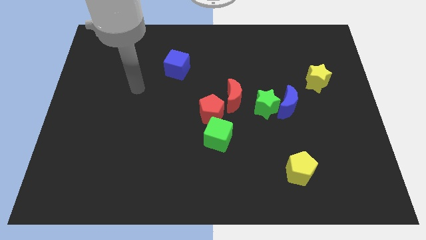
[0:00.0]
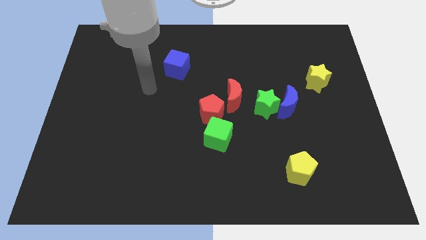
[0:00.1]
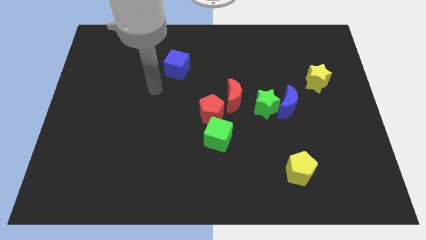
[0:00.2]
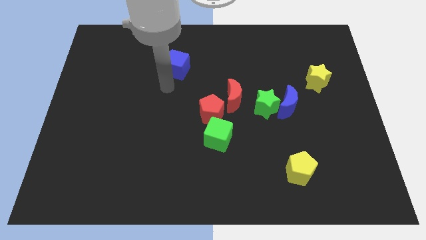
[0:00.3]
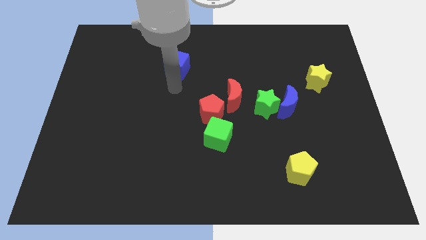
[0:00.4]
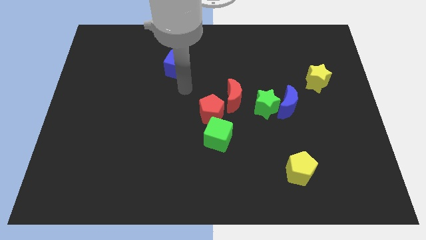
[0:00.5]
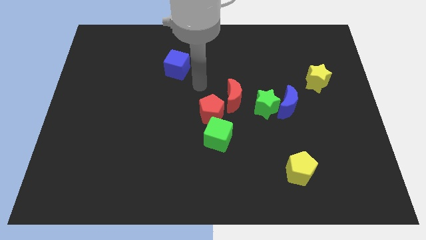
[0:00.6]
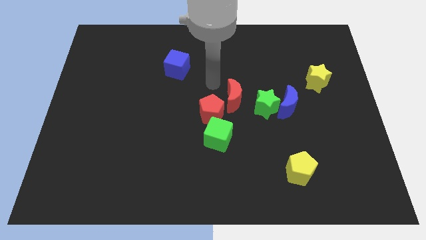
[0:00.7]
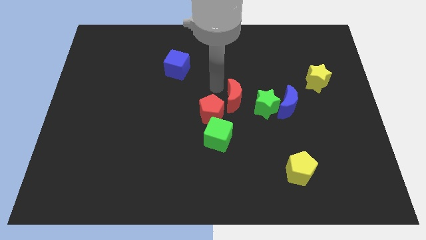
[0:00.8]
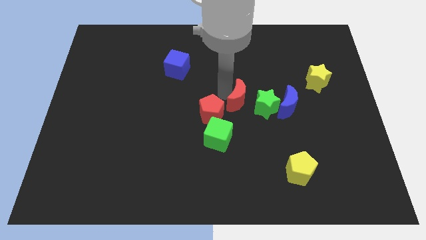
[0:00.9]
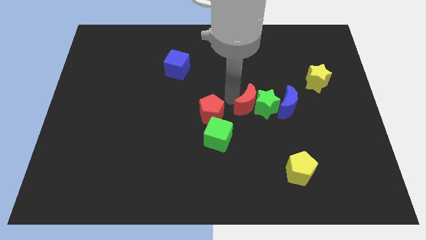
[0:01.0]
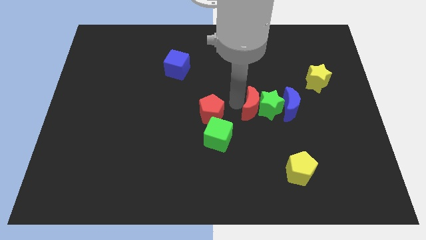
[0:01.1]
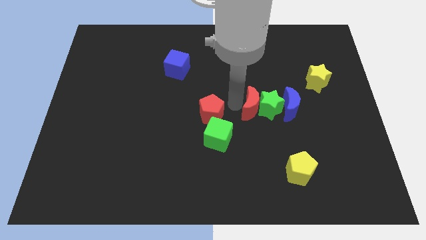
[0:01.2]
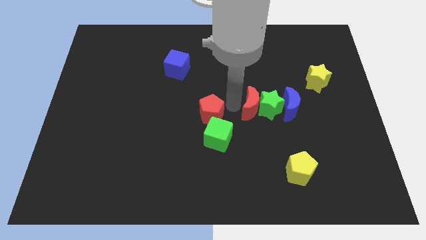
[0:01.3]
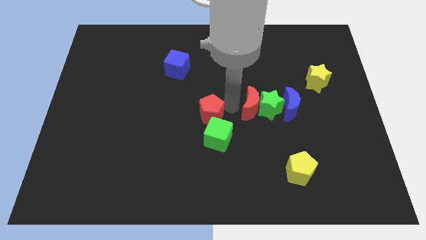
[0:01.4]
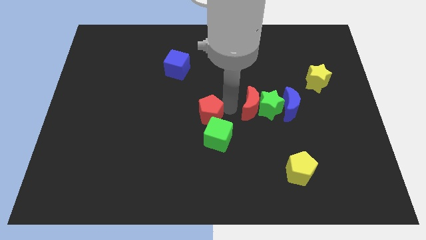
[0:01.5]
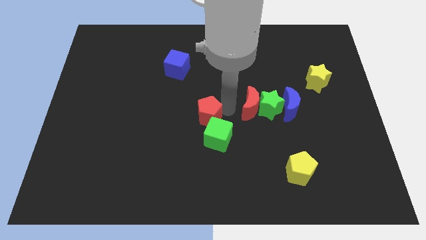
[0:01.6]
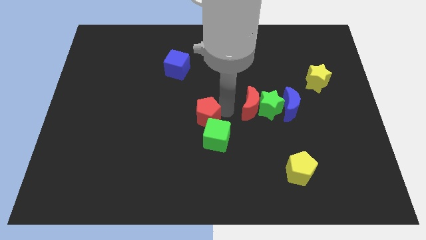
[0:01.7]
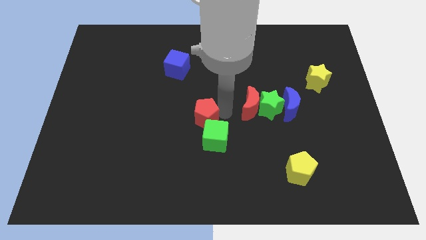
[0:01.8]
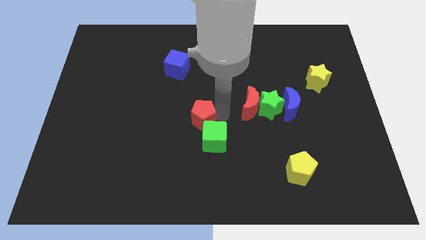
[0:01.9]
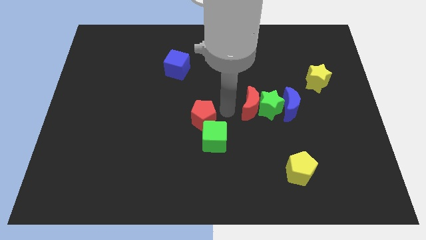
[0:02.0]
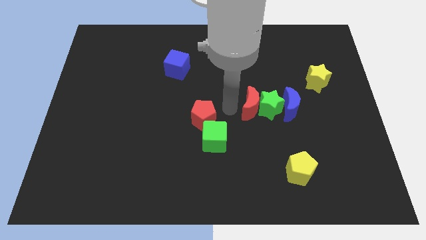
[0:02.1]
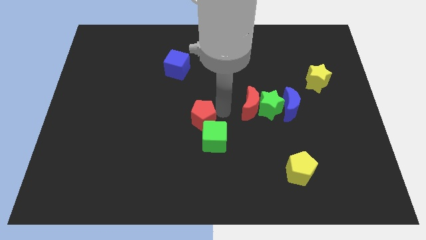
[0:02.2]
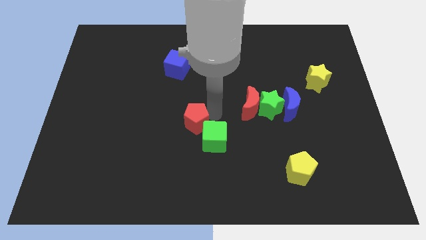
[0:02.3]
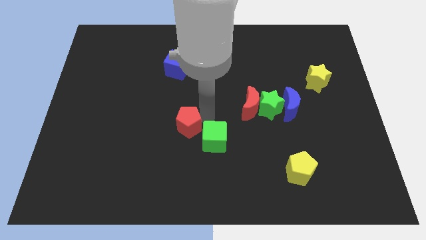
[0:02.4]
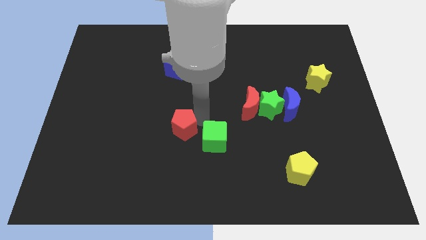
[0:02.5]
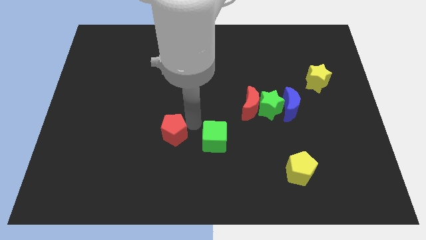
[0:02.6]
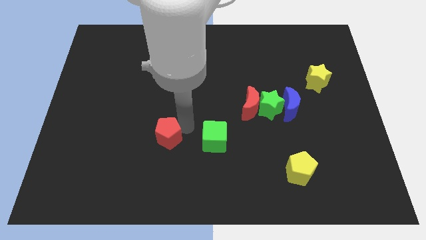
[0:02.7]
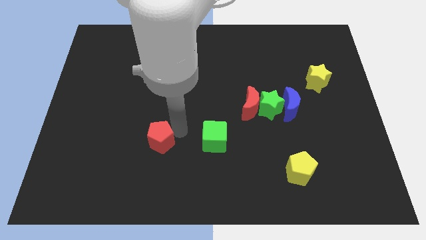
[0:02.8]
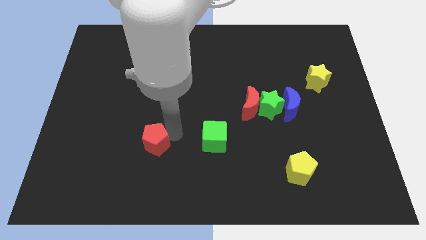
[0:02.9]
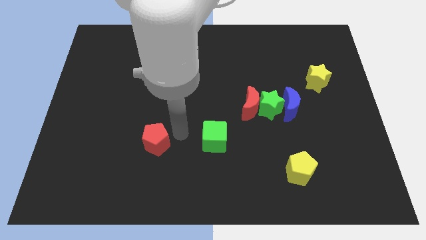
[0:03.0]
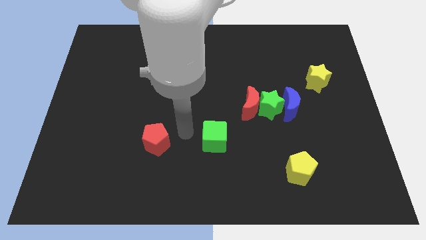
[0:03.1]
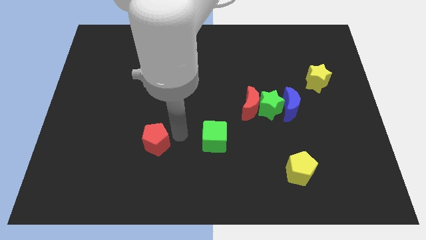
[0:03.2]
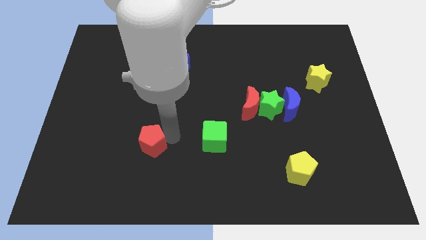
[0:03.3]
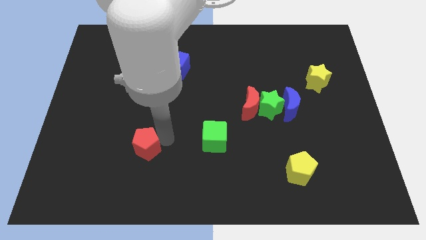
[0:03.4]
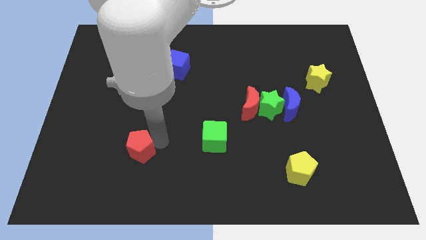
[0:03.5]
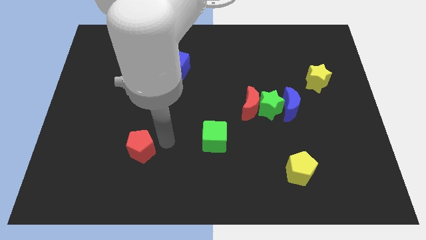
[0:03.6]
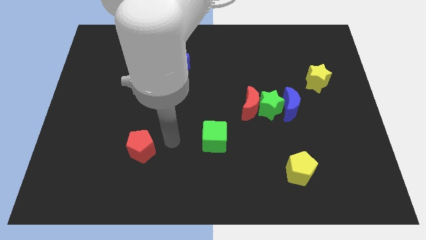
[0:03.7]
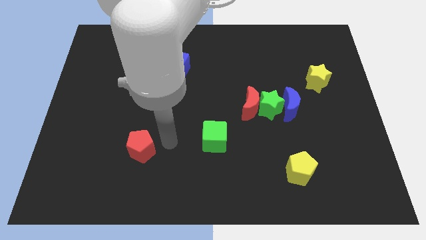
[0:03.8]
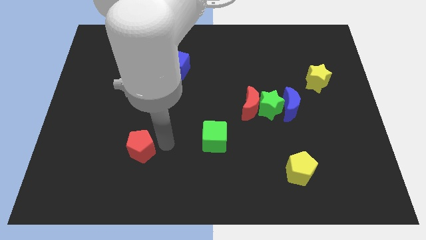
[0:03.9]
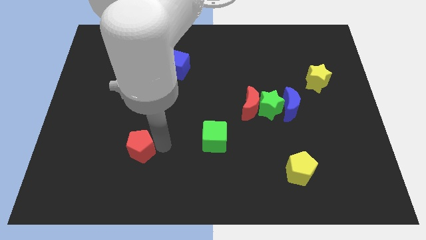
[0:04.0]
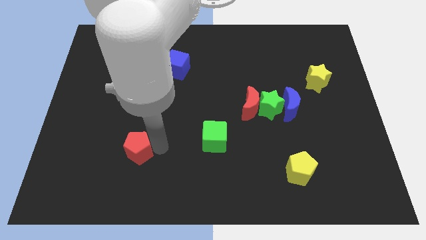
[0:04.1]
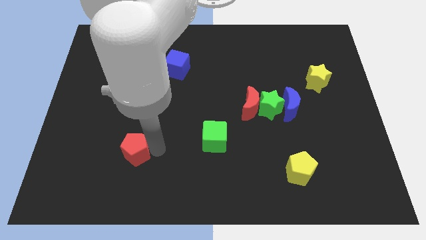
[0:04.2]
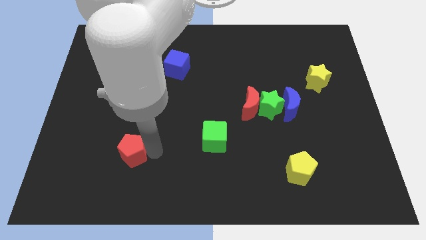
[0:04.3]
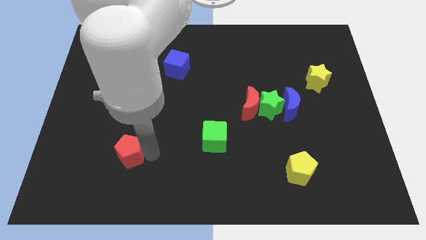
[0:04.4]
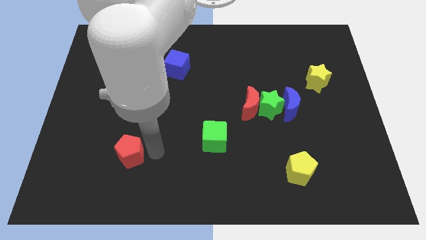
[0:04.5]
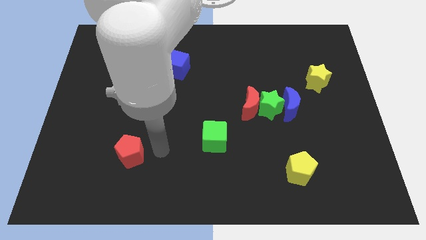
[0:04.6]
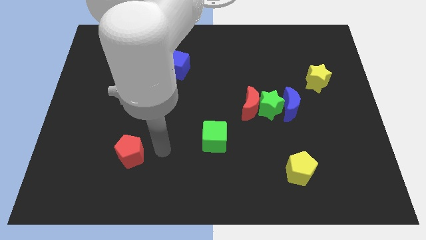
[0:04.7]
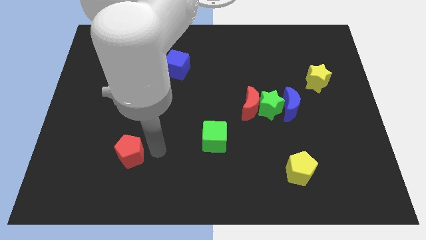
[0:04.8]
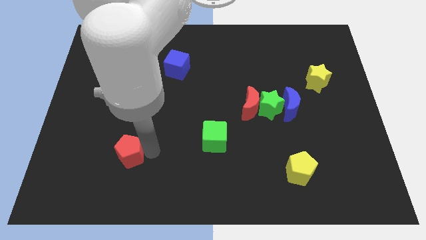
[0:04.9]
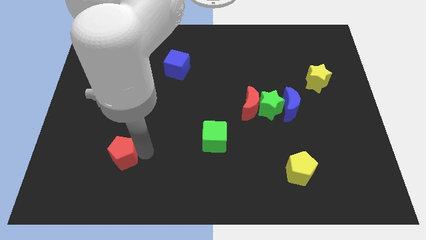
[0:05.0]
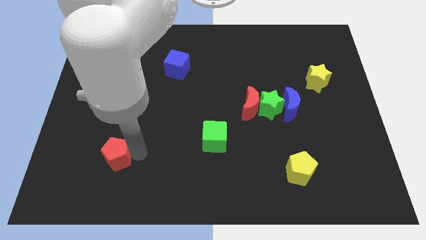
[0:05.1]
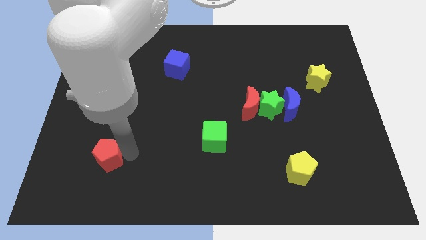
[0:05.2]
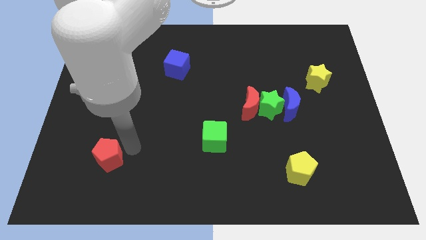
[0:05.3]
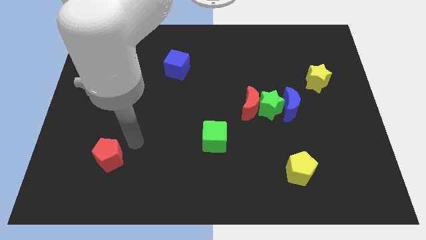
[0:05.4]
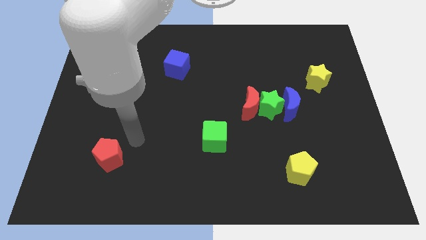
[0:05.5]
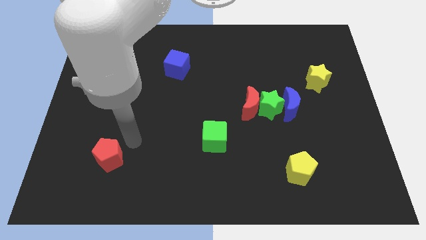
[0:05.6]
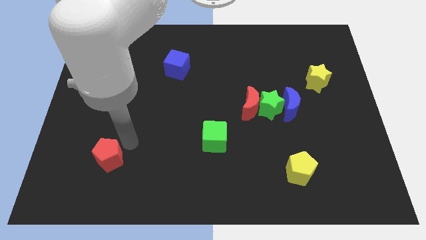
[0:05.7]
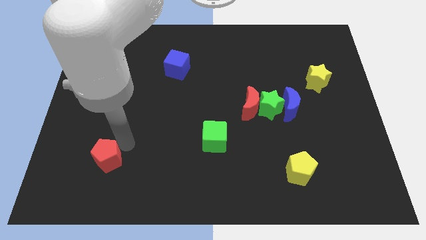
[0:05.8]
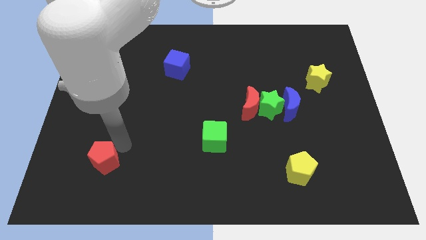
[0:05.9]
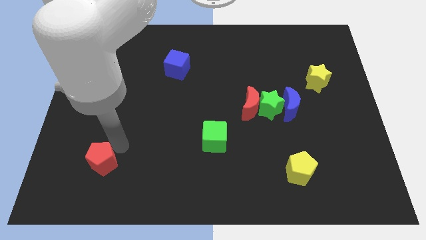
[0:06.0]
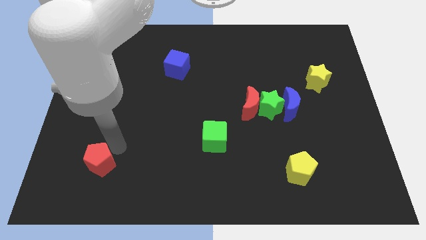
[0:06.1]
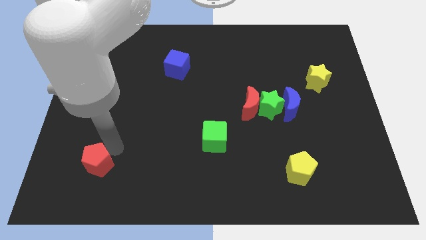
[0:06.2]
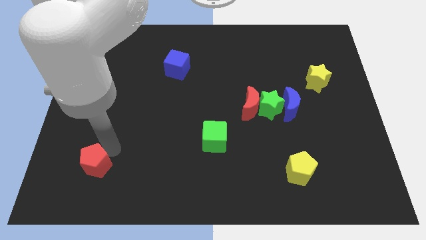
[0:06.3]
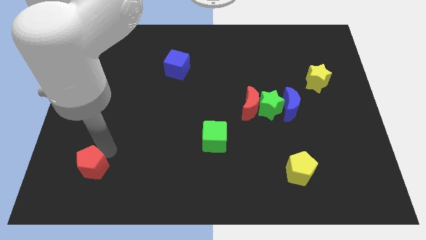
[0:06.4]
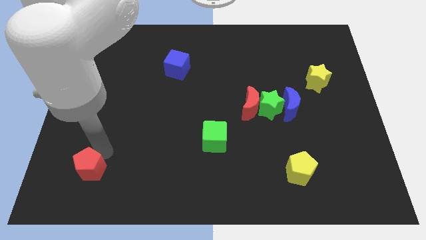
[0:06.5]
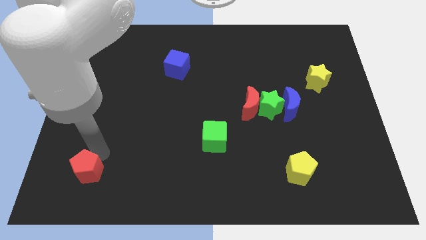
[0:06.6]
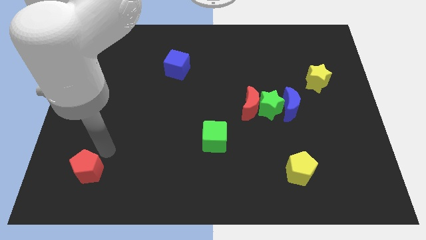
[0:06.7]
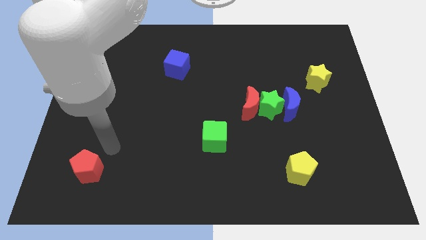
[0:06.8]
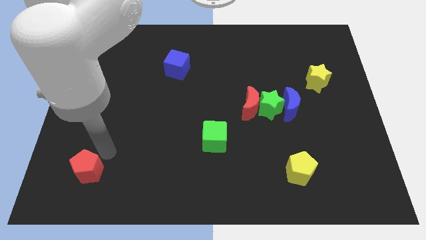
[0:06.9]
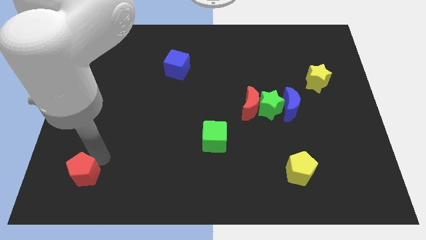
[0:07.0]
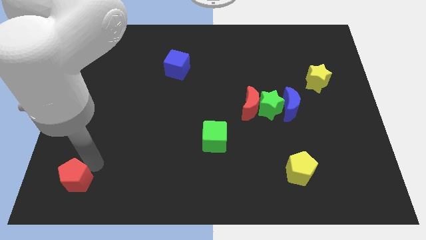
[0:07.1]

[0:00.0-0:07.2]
push the red pentagon to the bottom left corner
